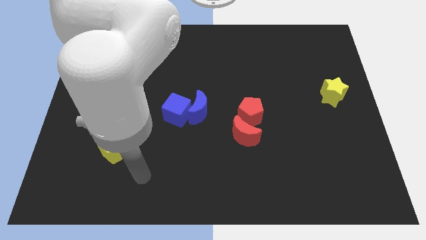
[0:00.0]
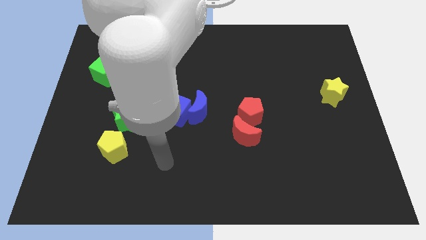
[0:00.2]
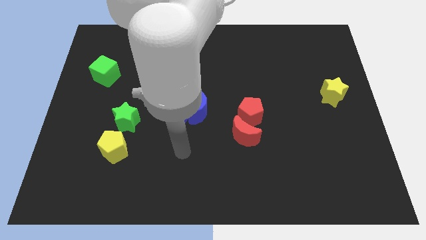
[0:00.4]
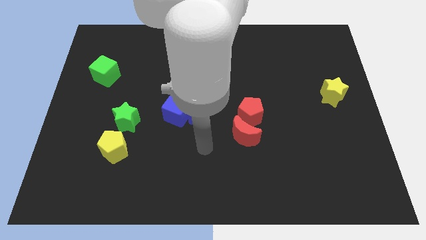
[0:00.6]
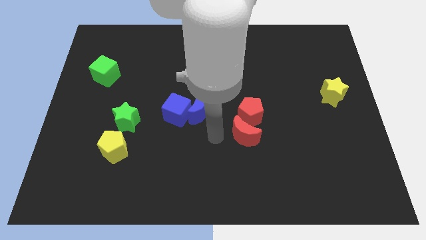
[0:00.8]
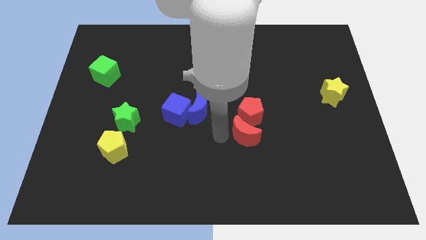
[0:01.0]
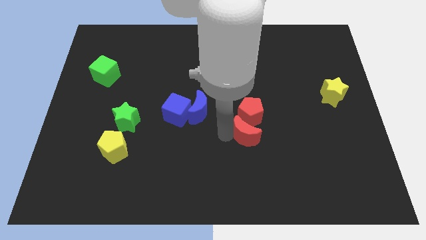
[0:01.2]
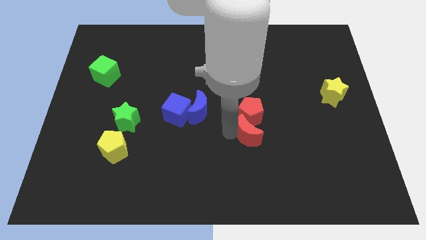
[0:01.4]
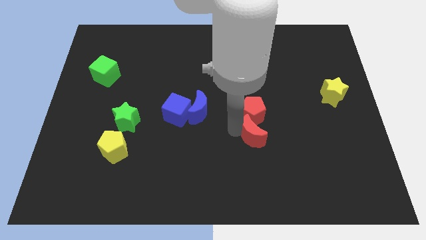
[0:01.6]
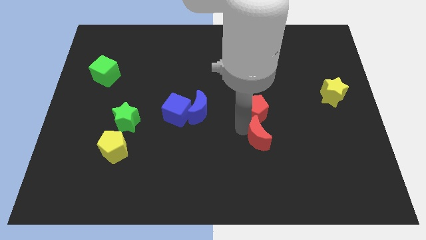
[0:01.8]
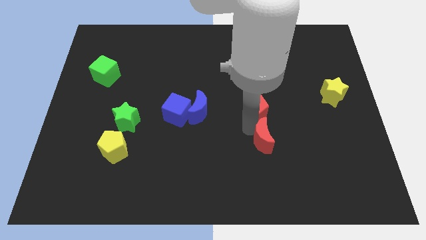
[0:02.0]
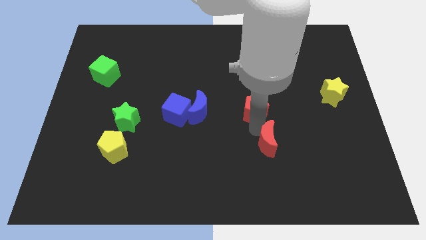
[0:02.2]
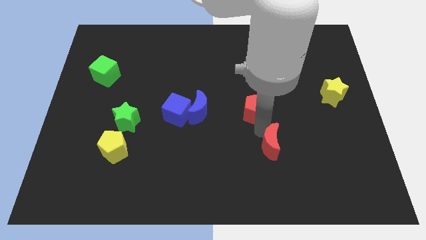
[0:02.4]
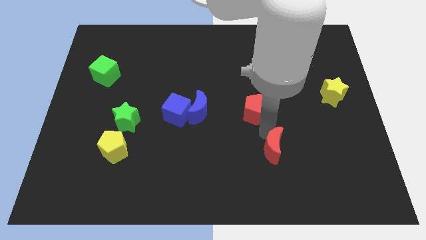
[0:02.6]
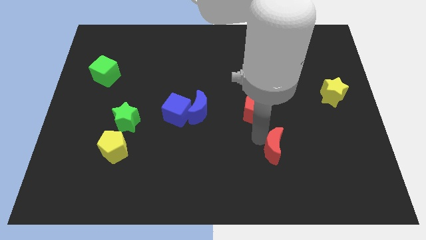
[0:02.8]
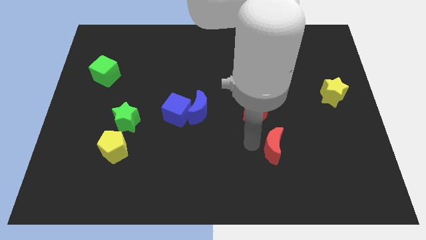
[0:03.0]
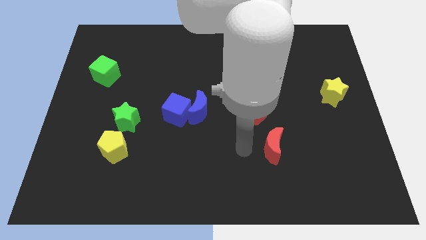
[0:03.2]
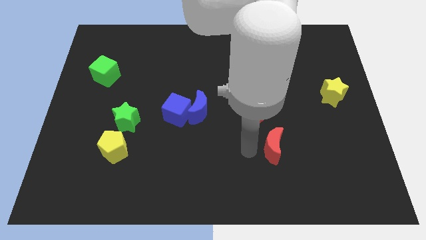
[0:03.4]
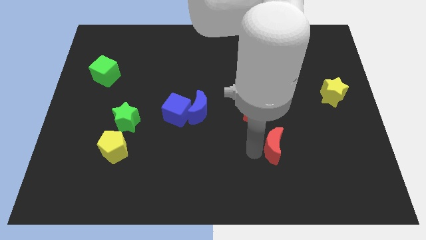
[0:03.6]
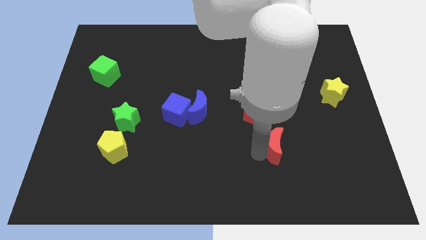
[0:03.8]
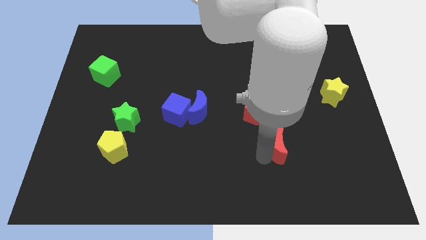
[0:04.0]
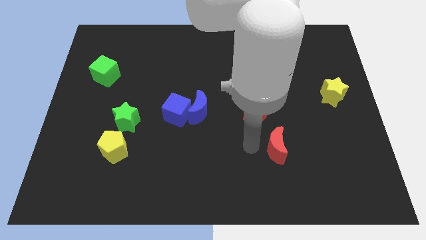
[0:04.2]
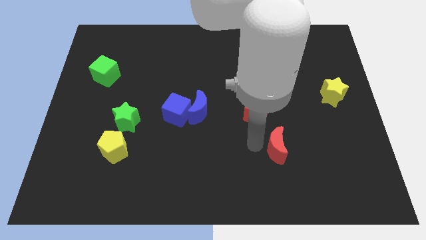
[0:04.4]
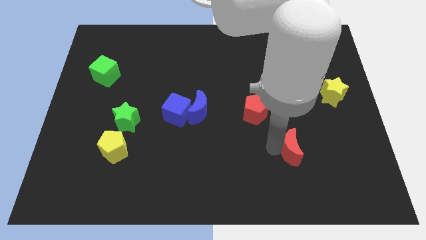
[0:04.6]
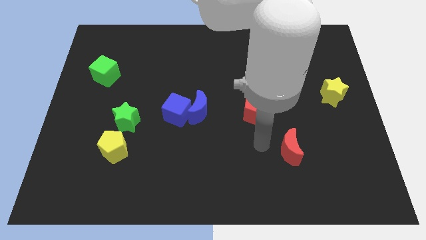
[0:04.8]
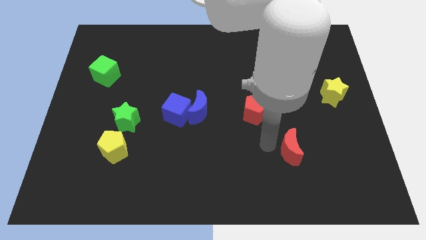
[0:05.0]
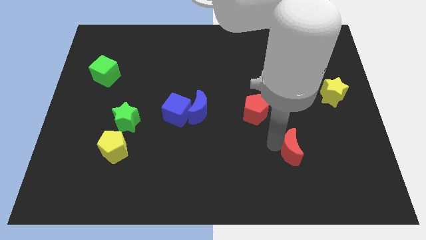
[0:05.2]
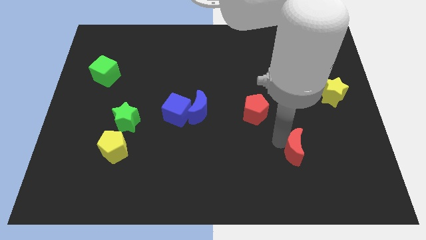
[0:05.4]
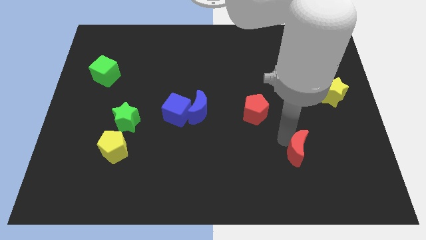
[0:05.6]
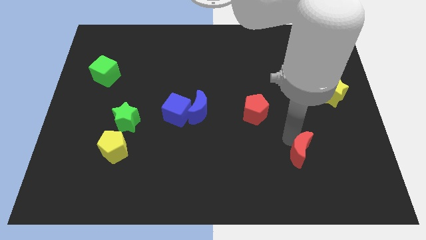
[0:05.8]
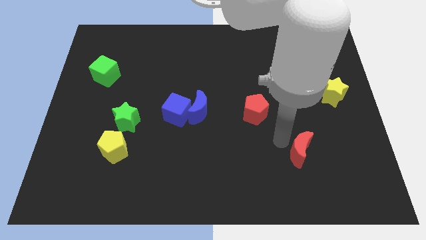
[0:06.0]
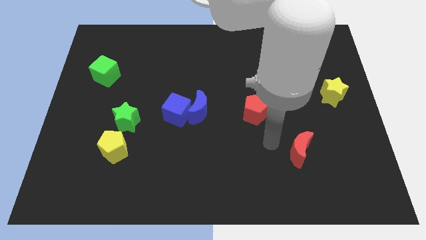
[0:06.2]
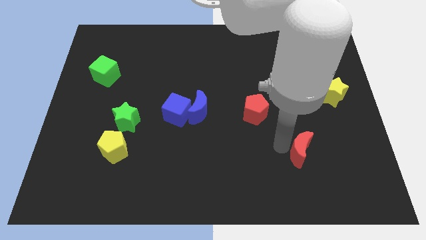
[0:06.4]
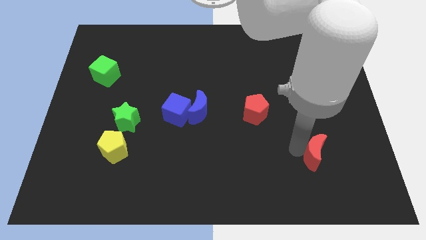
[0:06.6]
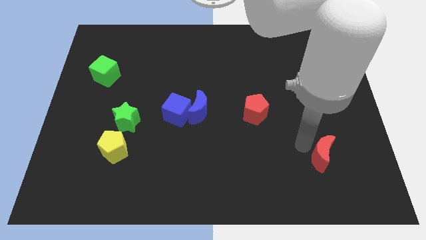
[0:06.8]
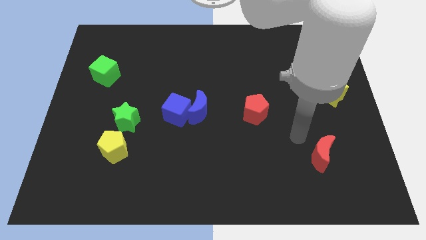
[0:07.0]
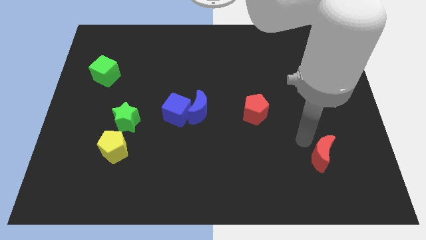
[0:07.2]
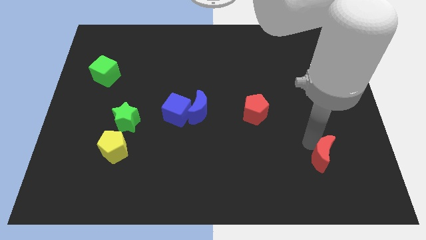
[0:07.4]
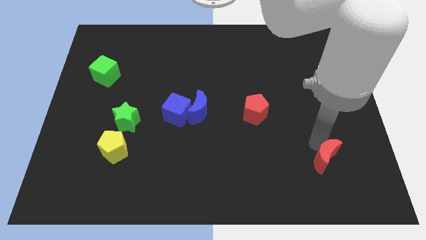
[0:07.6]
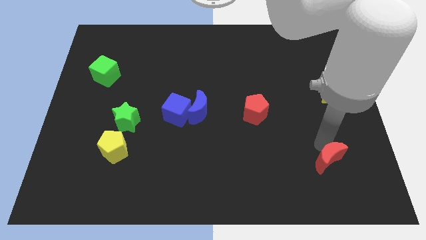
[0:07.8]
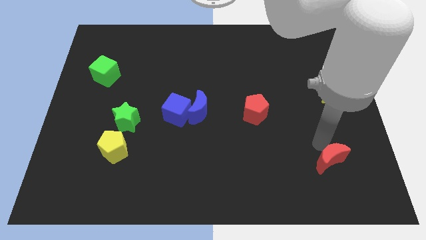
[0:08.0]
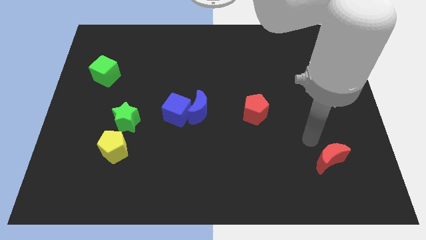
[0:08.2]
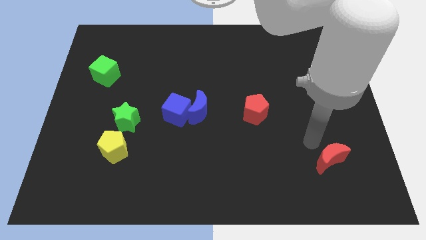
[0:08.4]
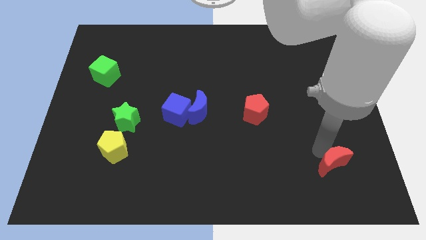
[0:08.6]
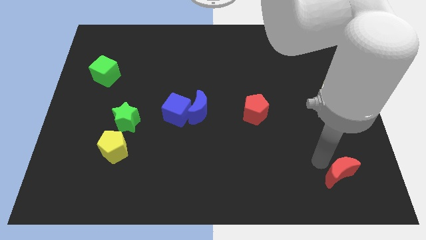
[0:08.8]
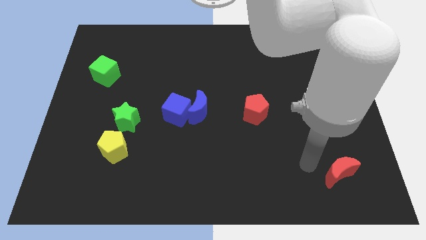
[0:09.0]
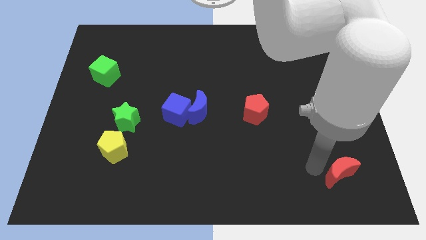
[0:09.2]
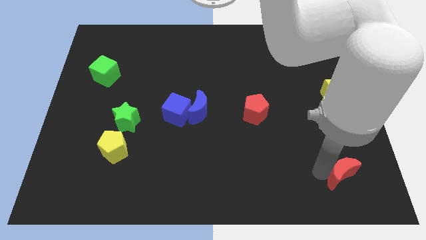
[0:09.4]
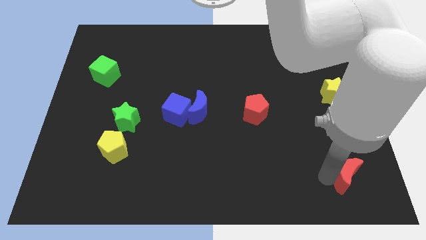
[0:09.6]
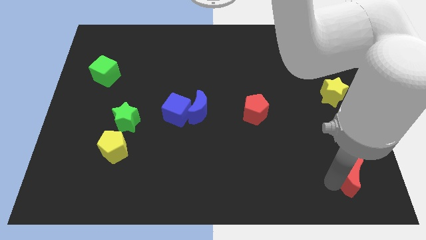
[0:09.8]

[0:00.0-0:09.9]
push the red moon to the bottom right corner

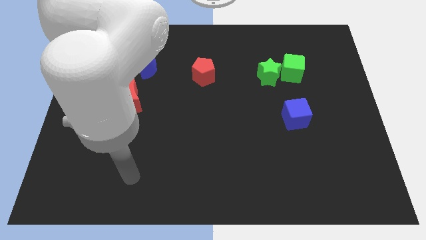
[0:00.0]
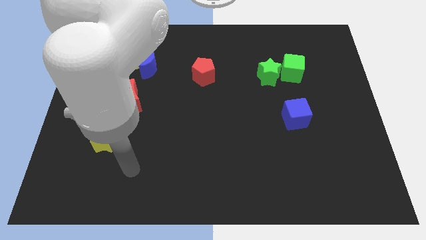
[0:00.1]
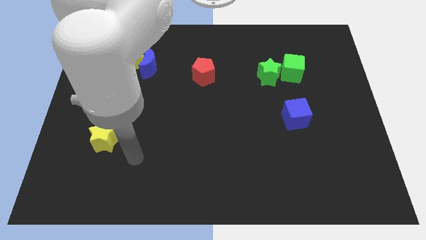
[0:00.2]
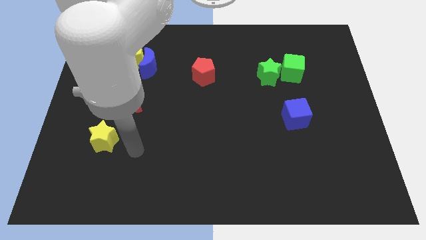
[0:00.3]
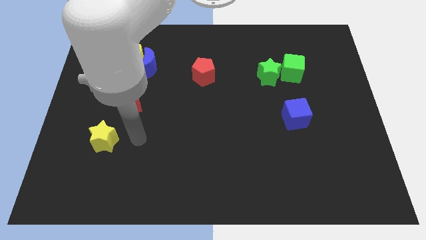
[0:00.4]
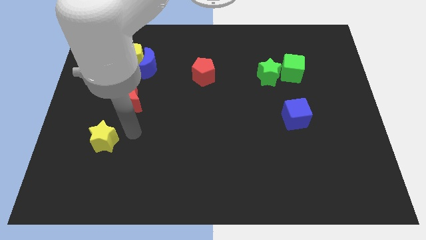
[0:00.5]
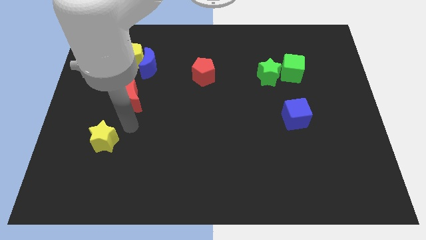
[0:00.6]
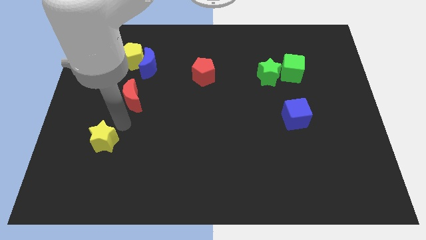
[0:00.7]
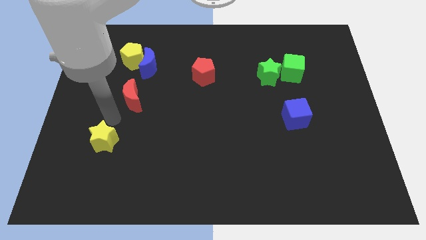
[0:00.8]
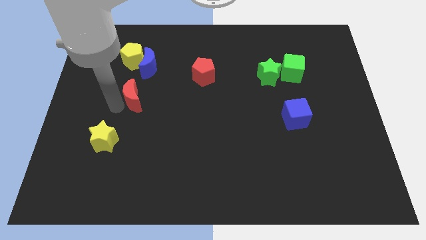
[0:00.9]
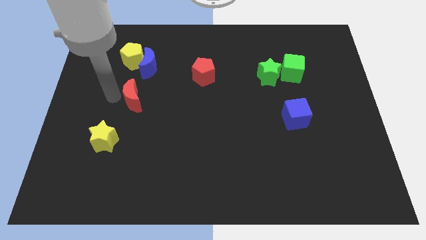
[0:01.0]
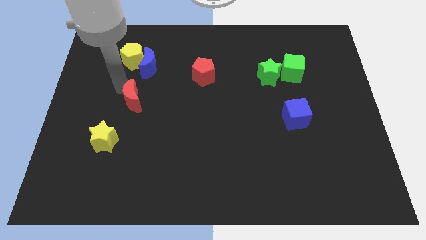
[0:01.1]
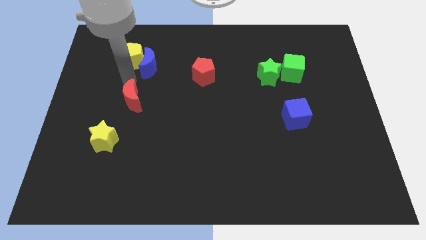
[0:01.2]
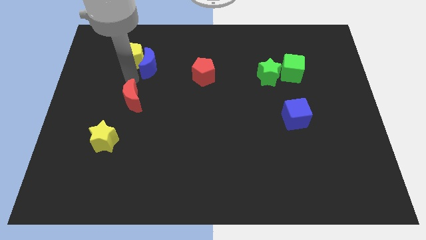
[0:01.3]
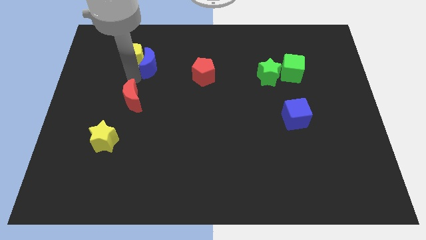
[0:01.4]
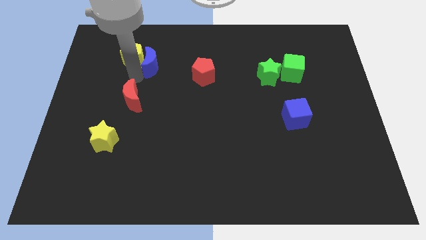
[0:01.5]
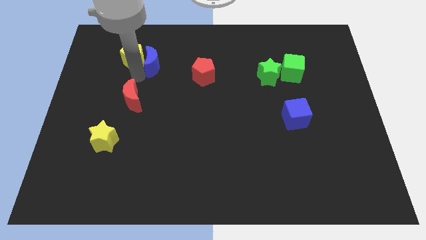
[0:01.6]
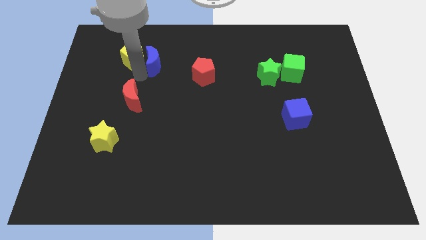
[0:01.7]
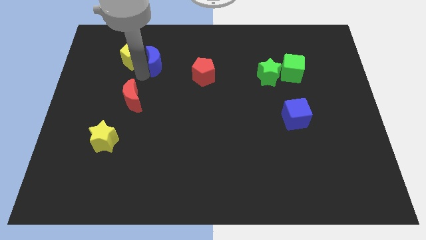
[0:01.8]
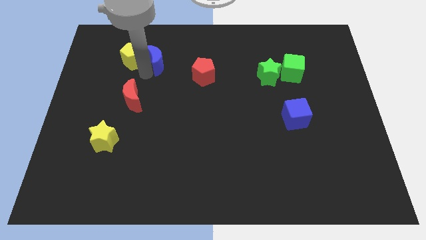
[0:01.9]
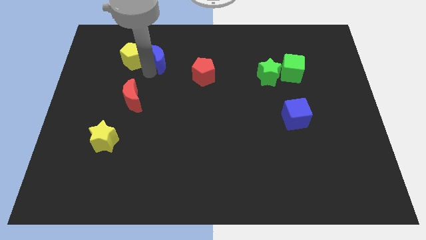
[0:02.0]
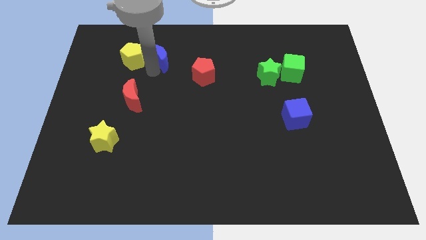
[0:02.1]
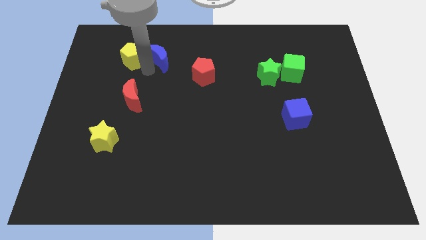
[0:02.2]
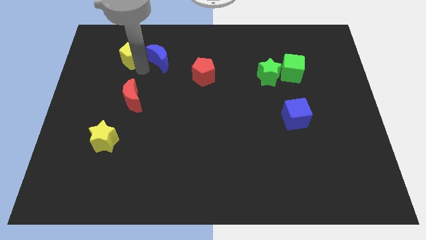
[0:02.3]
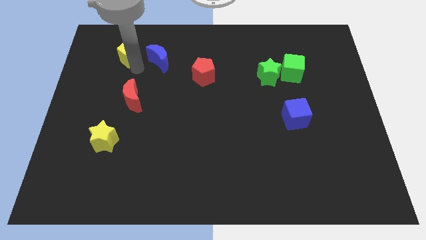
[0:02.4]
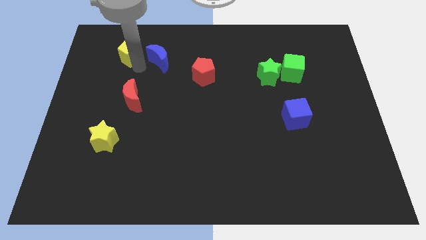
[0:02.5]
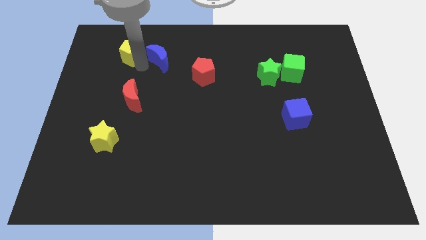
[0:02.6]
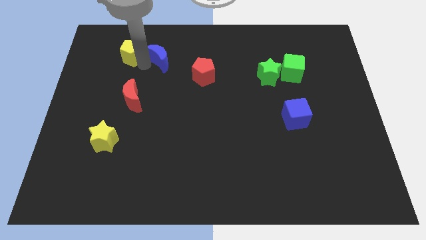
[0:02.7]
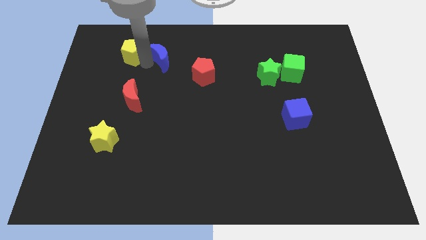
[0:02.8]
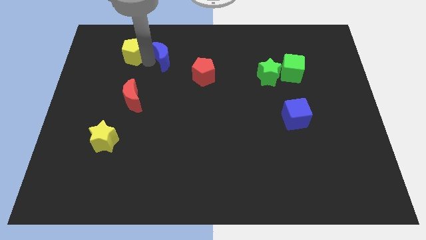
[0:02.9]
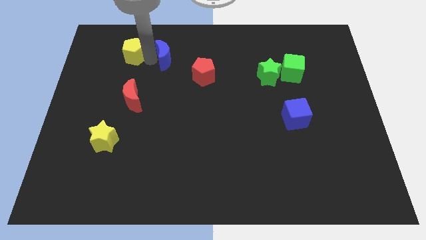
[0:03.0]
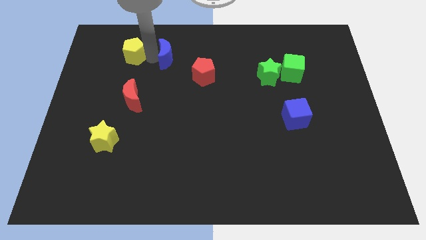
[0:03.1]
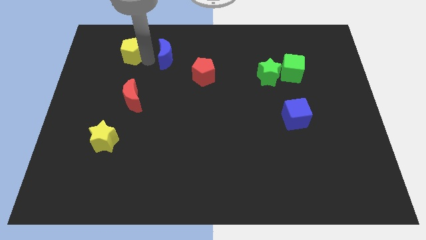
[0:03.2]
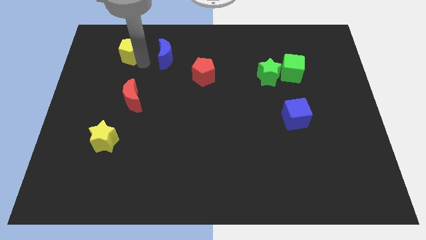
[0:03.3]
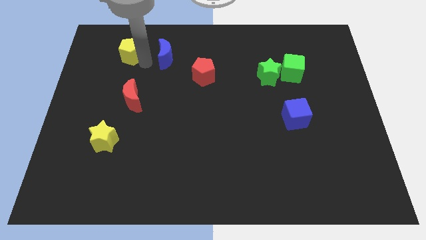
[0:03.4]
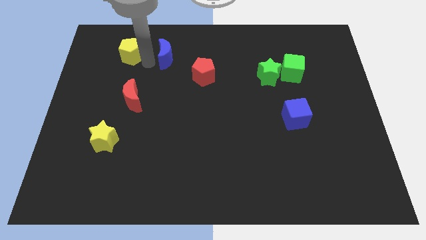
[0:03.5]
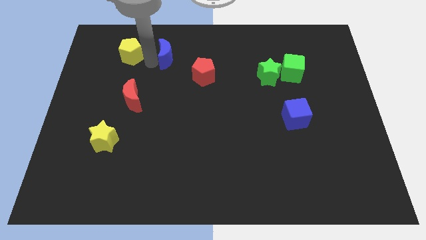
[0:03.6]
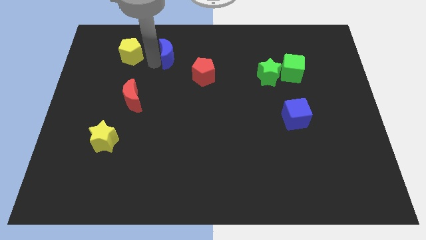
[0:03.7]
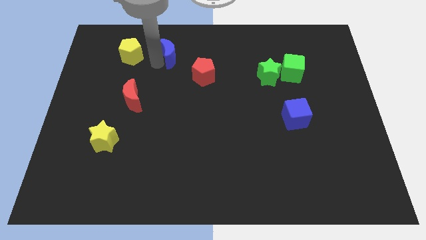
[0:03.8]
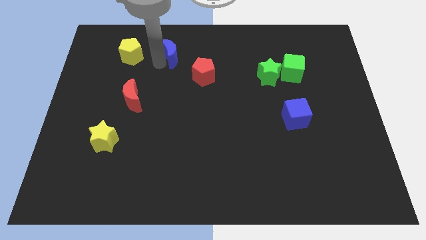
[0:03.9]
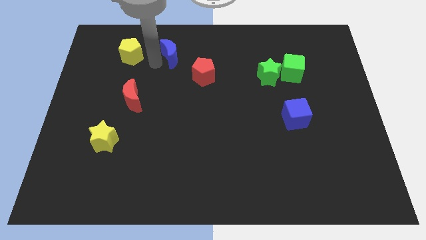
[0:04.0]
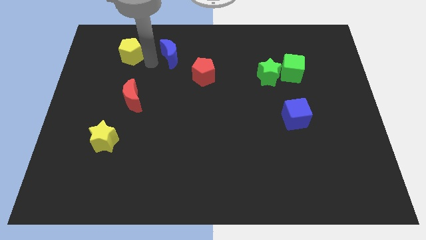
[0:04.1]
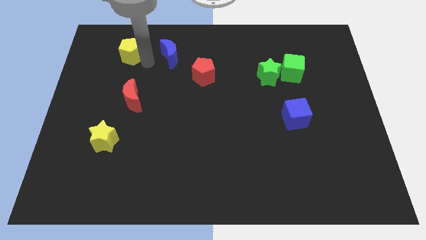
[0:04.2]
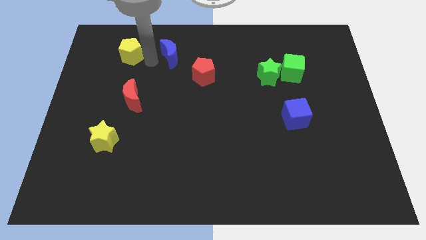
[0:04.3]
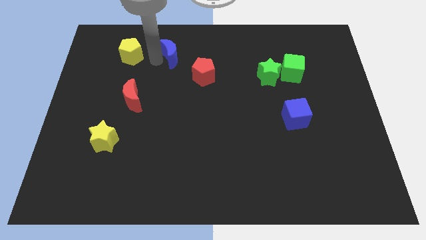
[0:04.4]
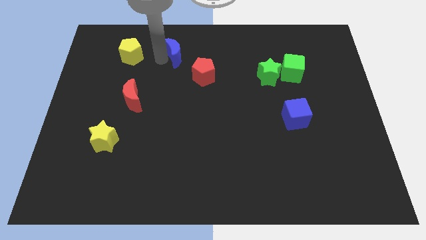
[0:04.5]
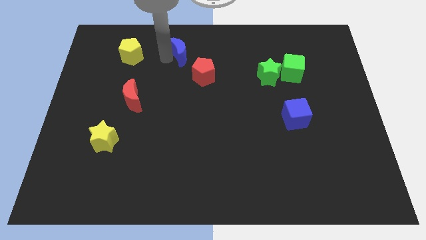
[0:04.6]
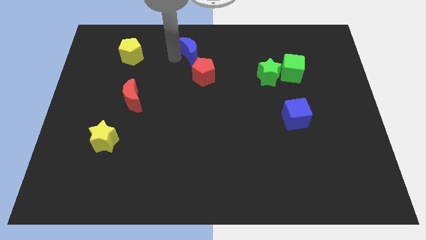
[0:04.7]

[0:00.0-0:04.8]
move the blue moon to the towards your base
